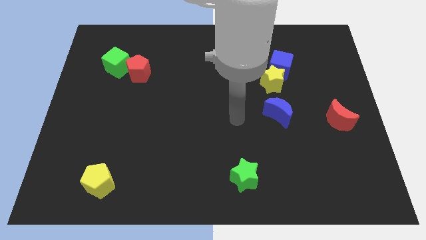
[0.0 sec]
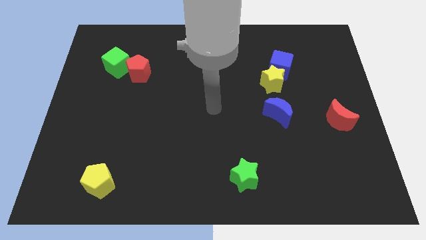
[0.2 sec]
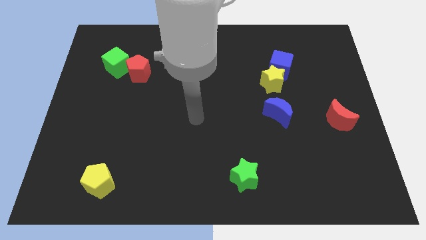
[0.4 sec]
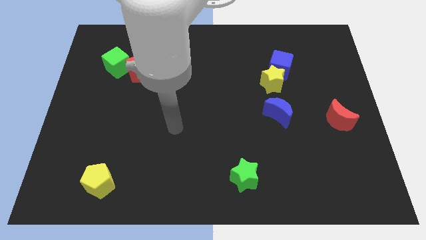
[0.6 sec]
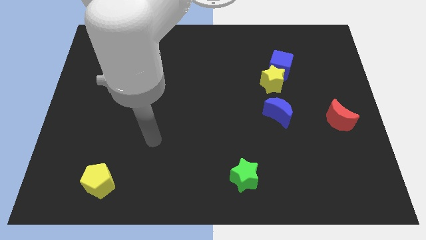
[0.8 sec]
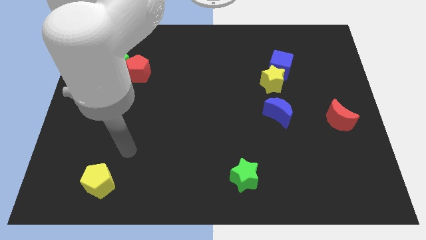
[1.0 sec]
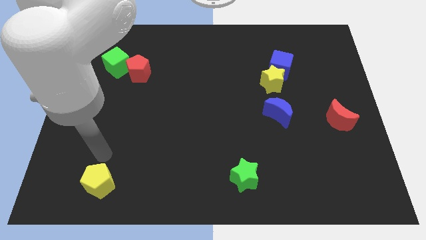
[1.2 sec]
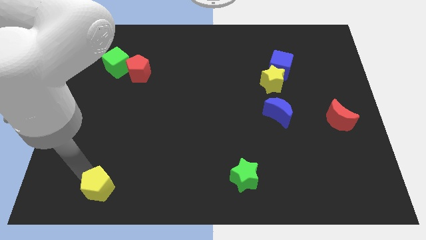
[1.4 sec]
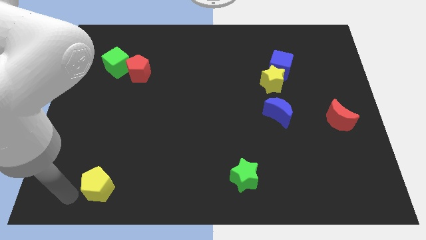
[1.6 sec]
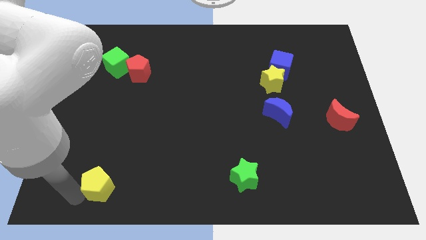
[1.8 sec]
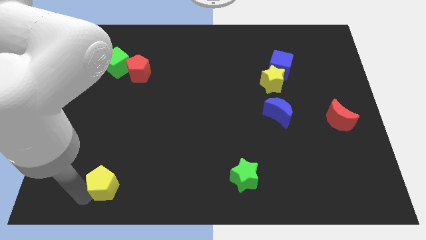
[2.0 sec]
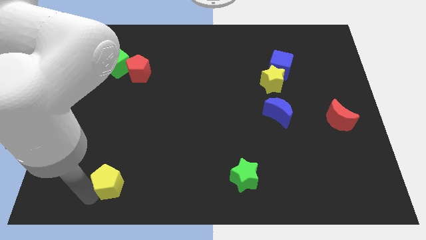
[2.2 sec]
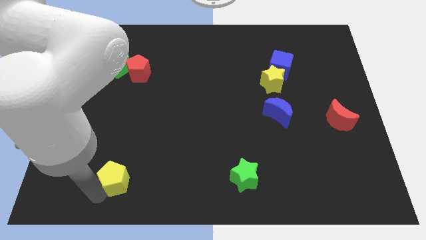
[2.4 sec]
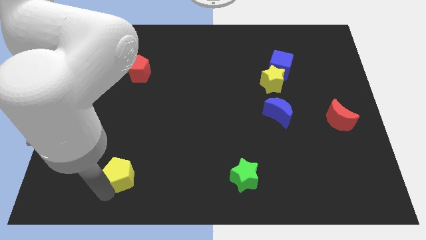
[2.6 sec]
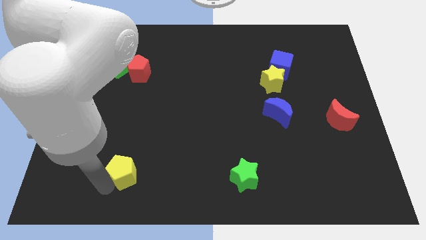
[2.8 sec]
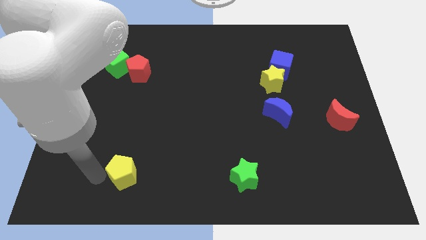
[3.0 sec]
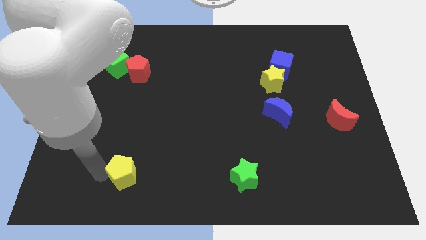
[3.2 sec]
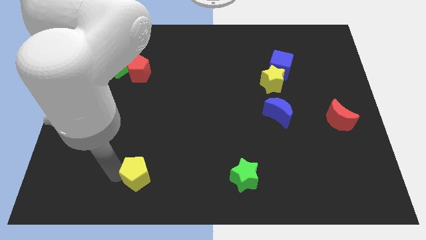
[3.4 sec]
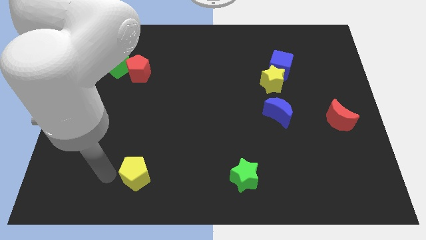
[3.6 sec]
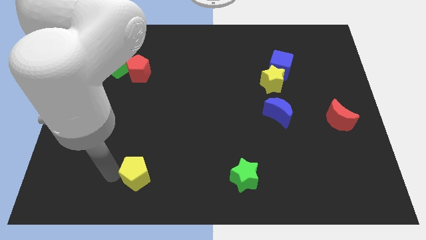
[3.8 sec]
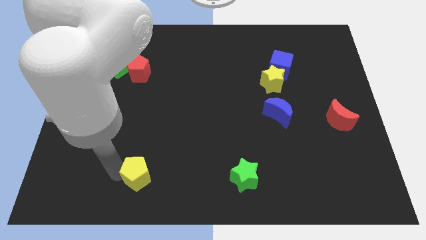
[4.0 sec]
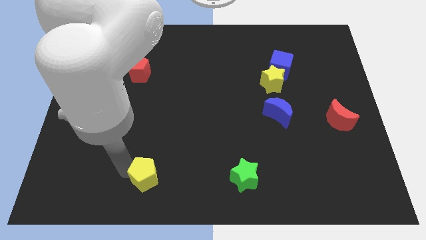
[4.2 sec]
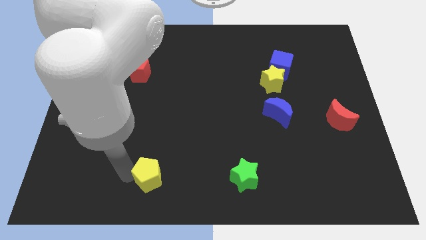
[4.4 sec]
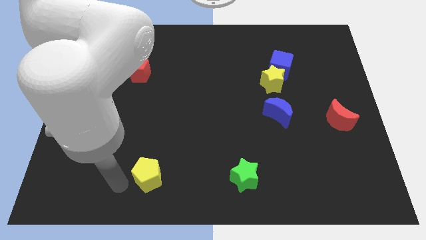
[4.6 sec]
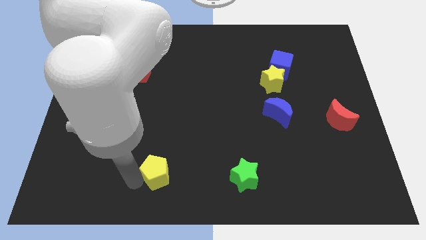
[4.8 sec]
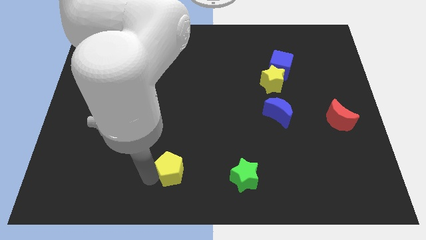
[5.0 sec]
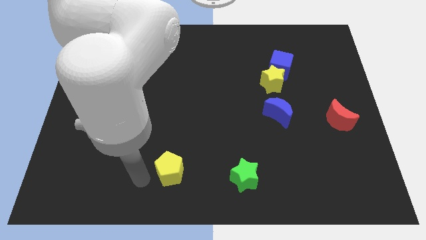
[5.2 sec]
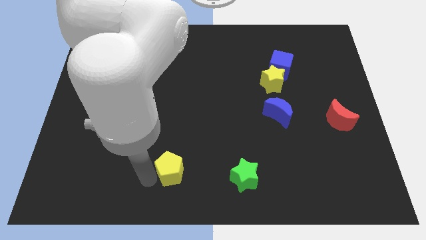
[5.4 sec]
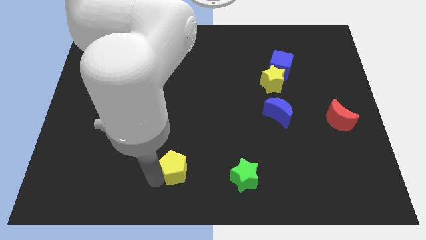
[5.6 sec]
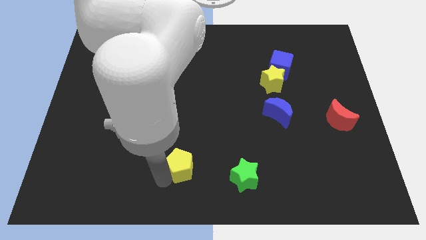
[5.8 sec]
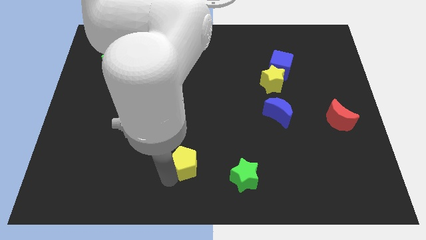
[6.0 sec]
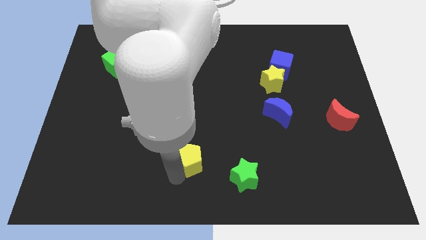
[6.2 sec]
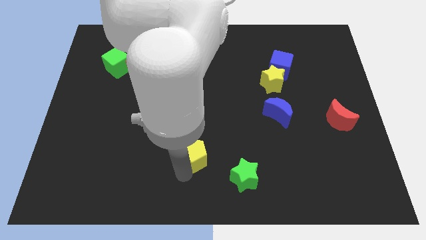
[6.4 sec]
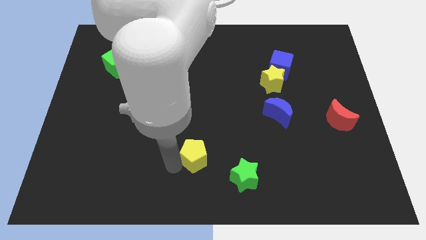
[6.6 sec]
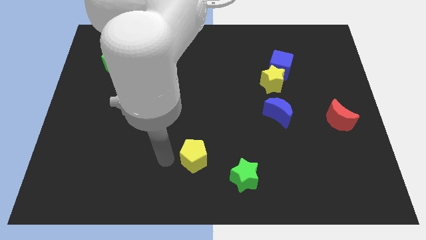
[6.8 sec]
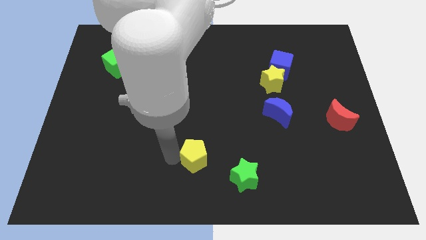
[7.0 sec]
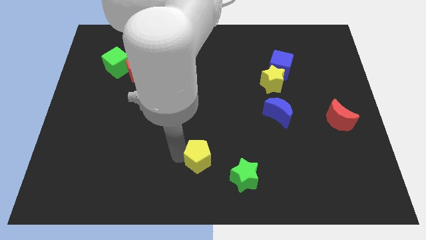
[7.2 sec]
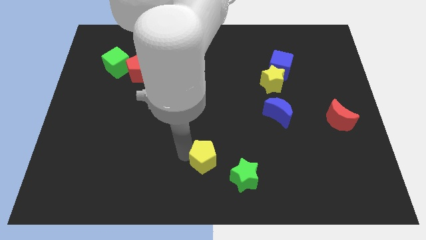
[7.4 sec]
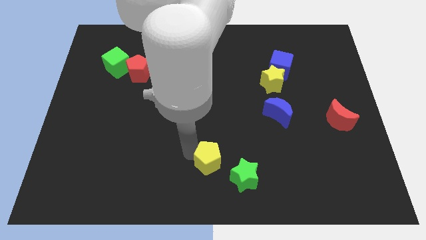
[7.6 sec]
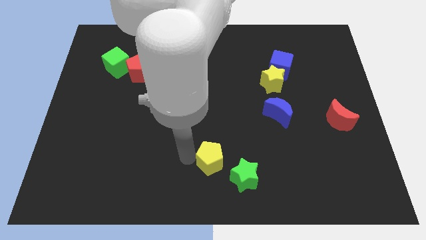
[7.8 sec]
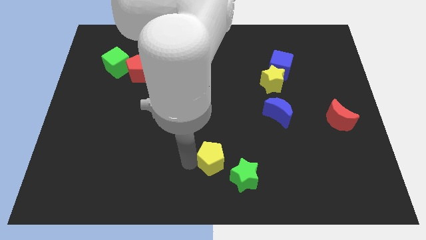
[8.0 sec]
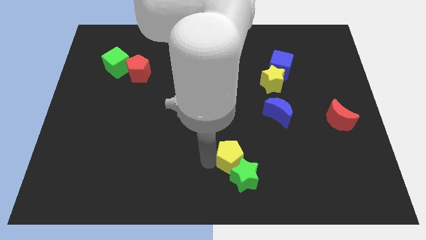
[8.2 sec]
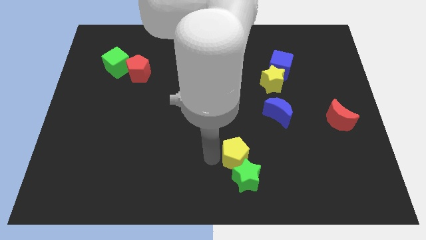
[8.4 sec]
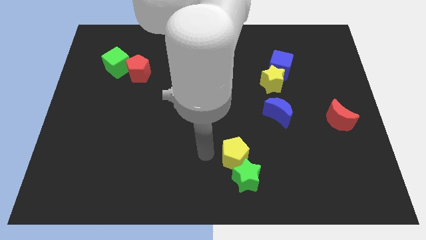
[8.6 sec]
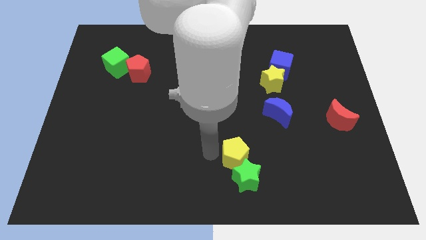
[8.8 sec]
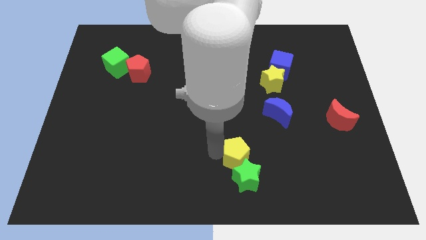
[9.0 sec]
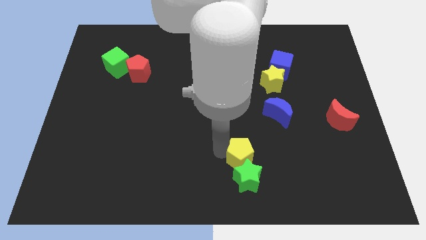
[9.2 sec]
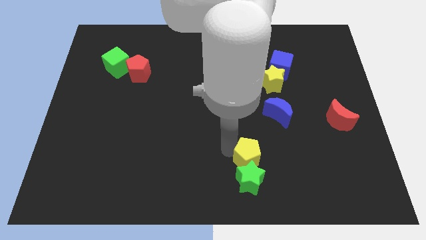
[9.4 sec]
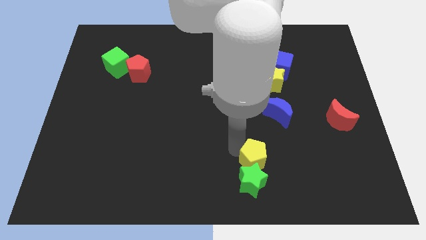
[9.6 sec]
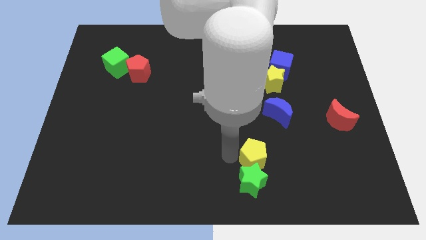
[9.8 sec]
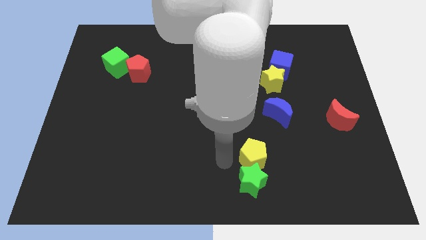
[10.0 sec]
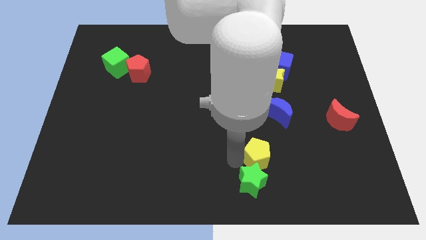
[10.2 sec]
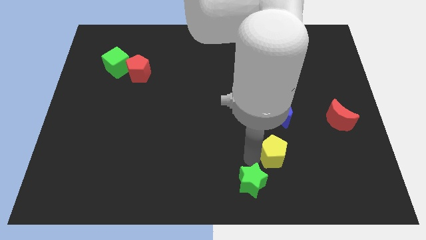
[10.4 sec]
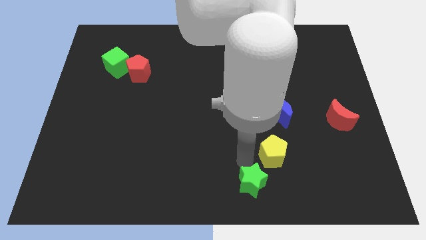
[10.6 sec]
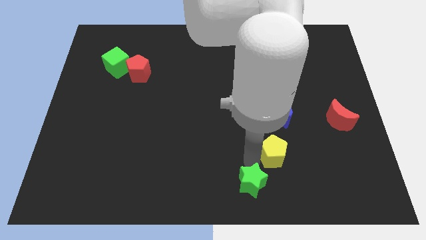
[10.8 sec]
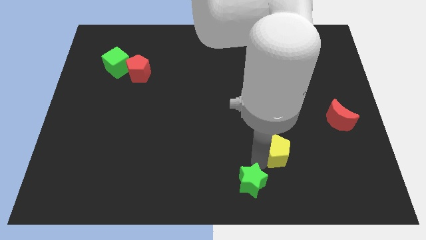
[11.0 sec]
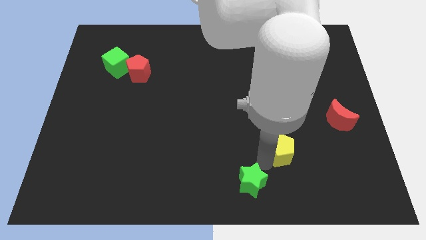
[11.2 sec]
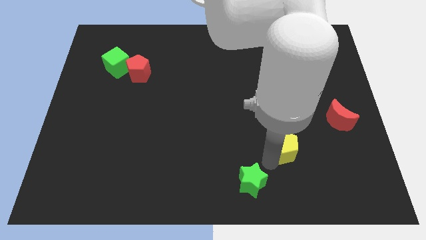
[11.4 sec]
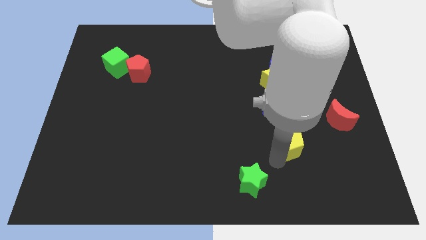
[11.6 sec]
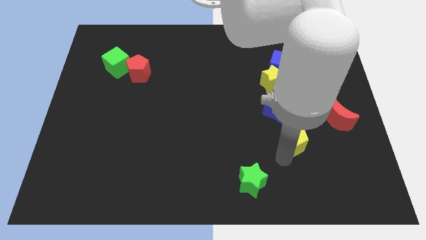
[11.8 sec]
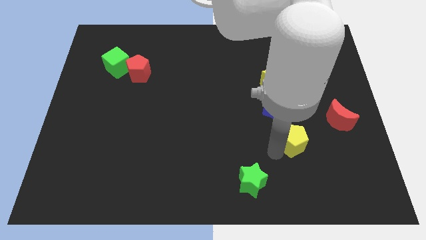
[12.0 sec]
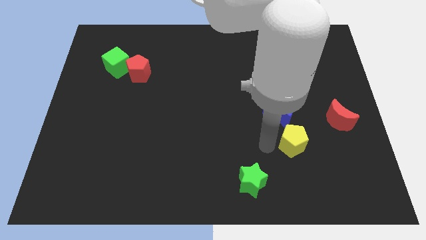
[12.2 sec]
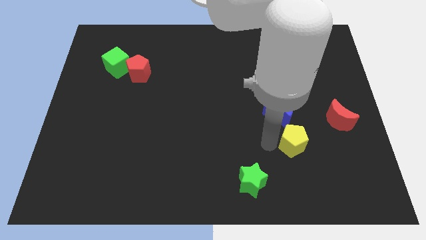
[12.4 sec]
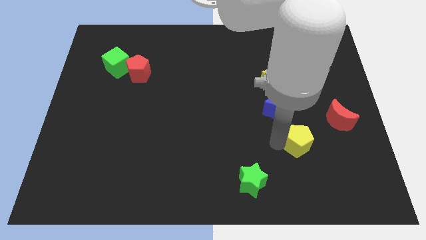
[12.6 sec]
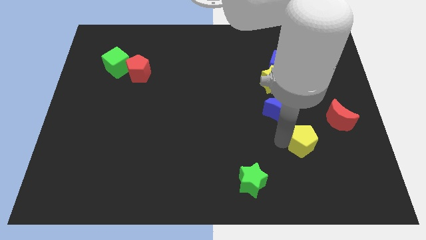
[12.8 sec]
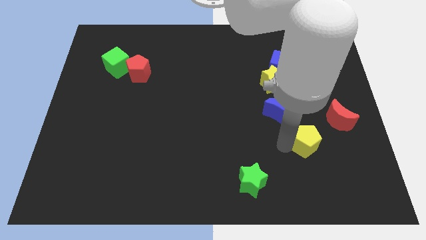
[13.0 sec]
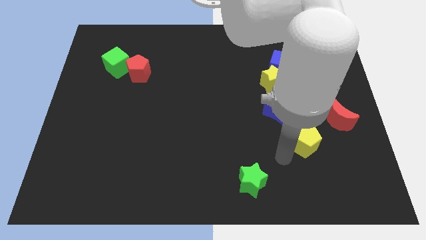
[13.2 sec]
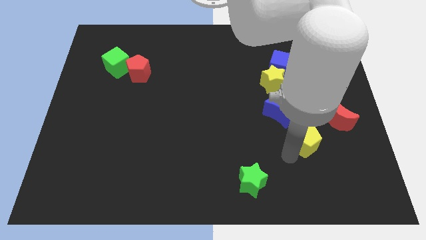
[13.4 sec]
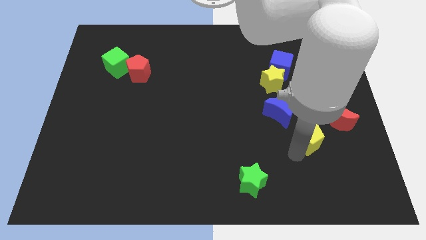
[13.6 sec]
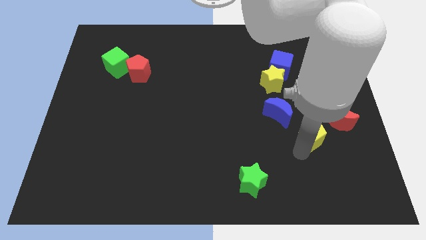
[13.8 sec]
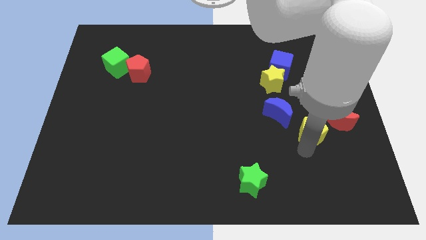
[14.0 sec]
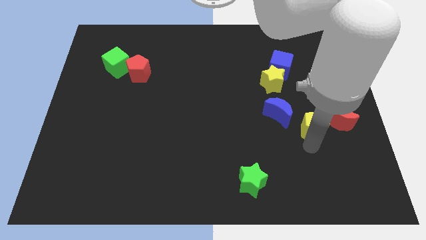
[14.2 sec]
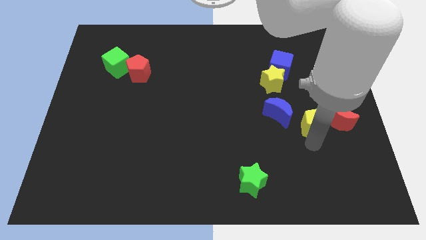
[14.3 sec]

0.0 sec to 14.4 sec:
put the yellow pentagon to the red moon
